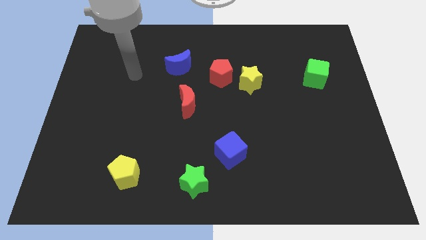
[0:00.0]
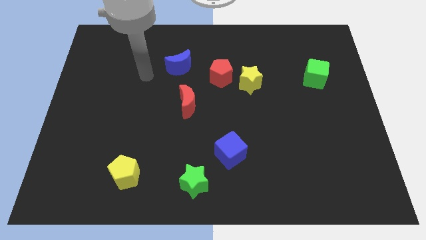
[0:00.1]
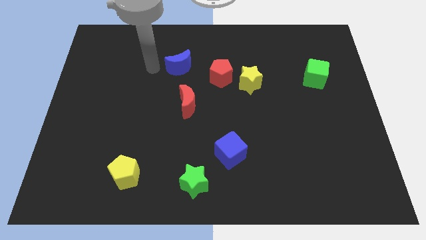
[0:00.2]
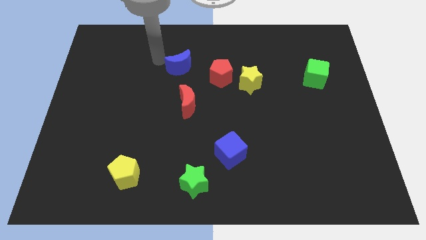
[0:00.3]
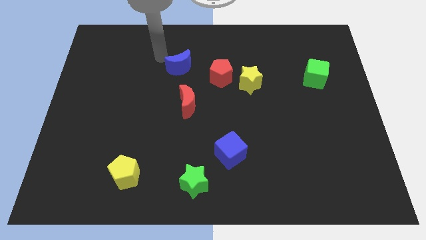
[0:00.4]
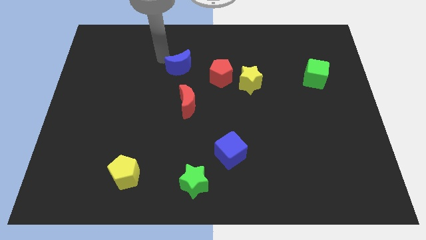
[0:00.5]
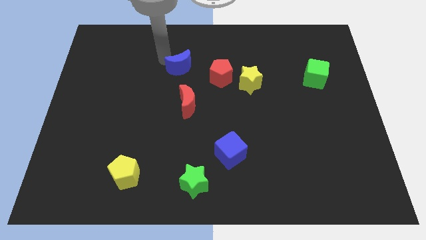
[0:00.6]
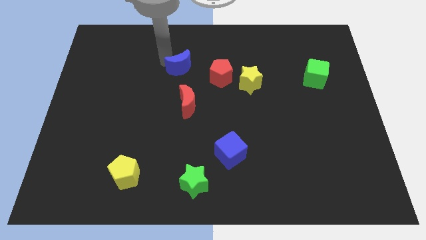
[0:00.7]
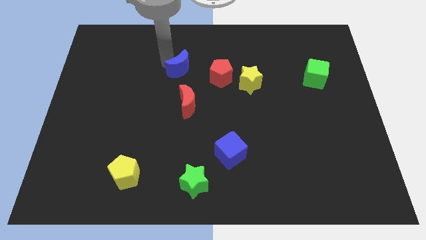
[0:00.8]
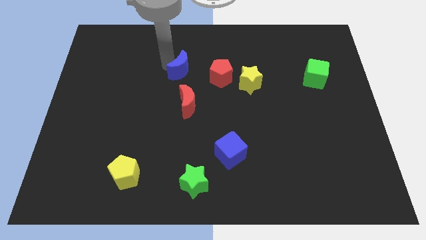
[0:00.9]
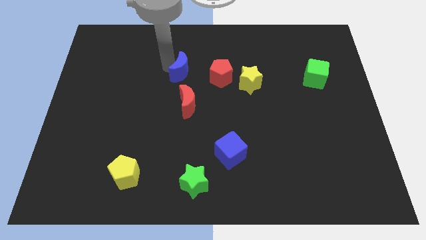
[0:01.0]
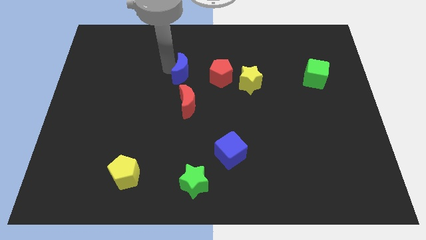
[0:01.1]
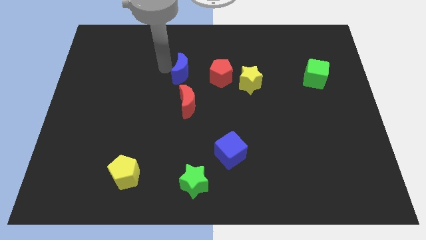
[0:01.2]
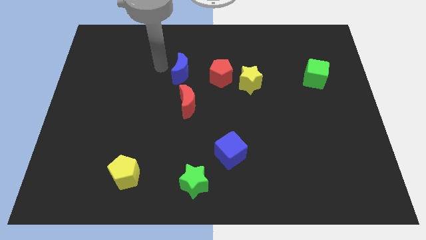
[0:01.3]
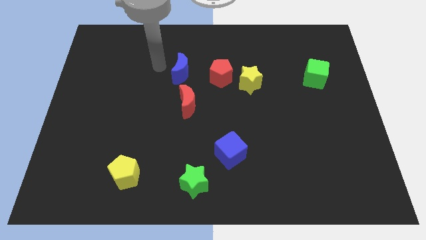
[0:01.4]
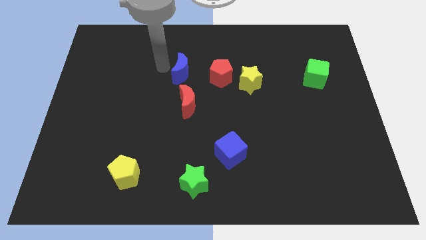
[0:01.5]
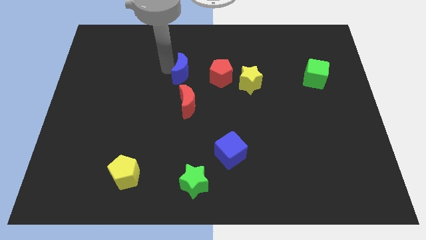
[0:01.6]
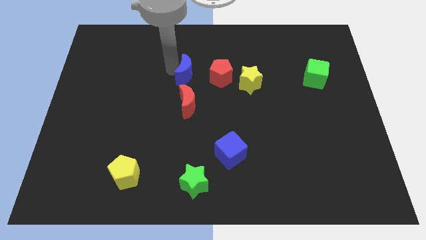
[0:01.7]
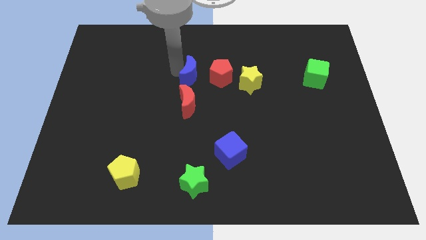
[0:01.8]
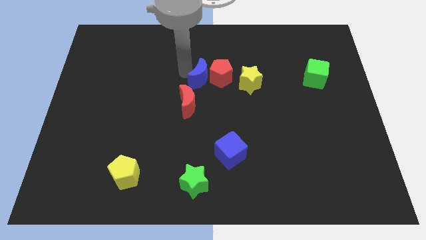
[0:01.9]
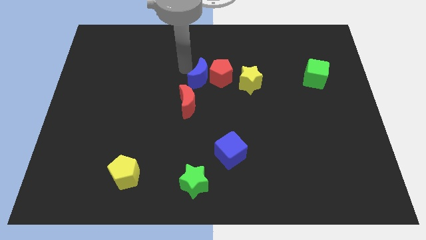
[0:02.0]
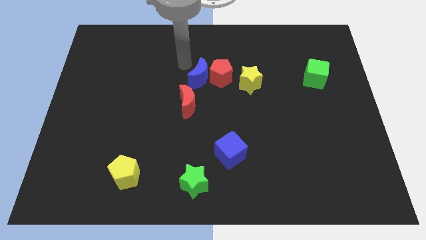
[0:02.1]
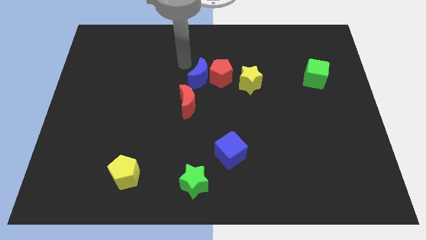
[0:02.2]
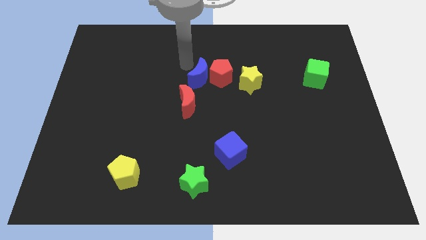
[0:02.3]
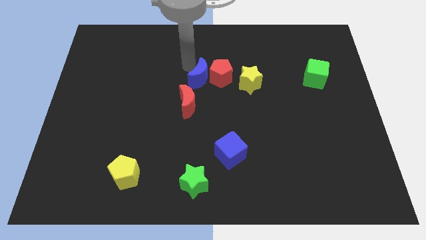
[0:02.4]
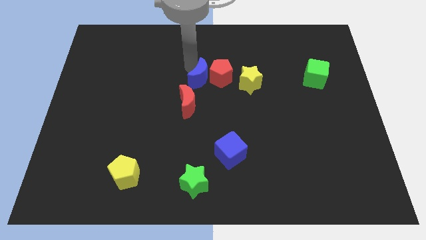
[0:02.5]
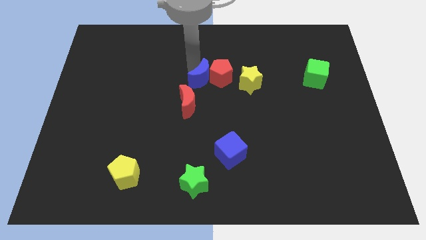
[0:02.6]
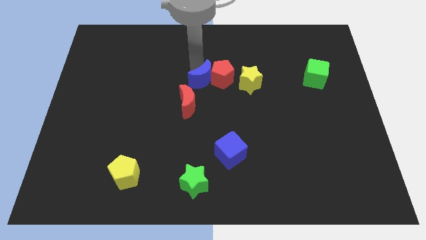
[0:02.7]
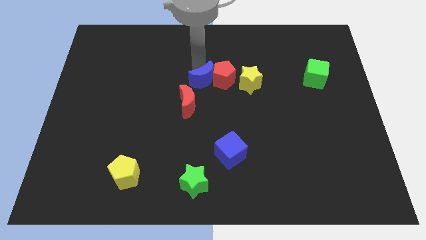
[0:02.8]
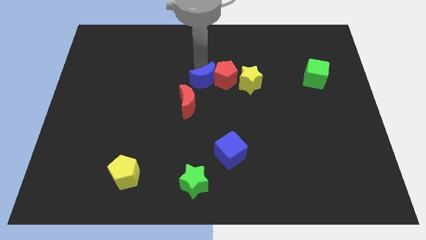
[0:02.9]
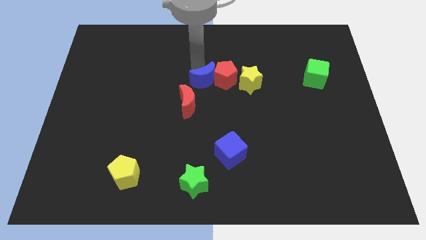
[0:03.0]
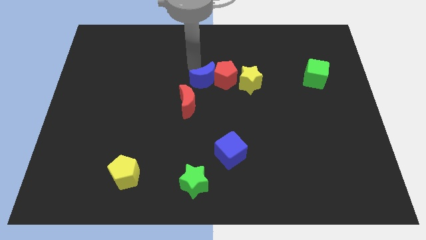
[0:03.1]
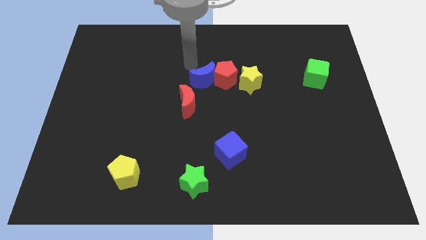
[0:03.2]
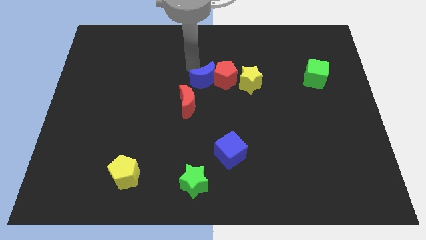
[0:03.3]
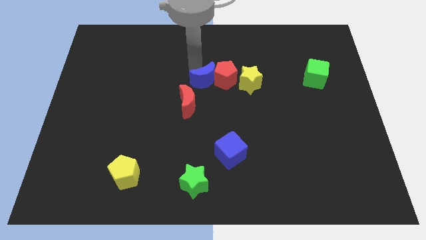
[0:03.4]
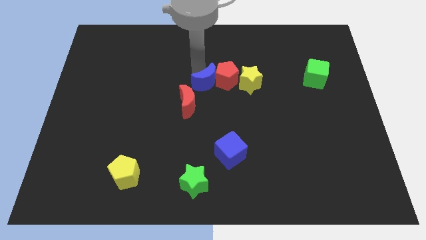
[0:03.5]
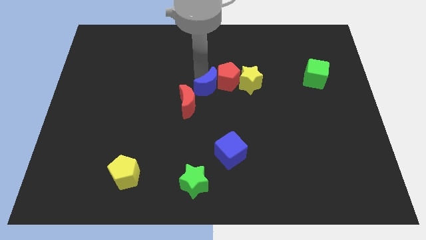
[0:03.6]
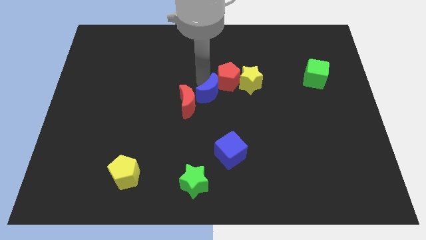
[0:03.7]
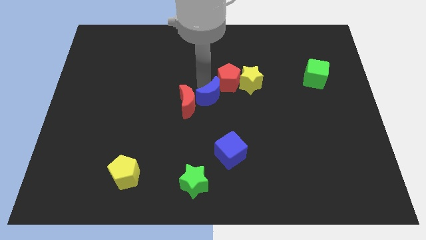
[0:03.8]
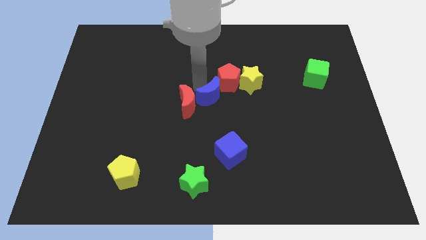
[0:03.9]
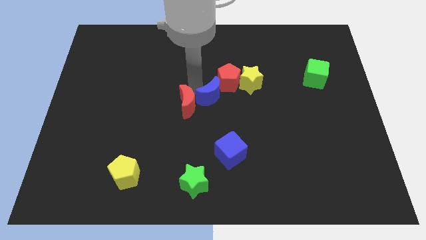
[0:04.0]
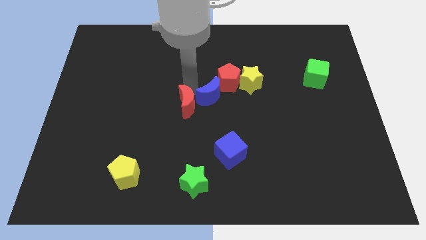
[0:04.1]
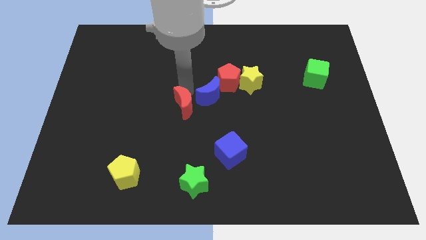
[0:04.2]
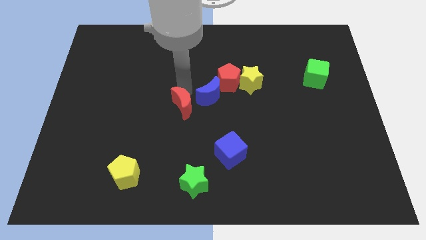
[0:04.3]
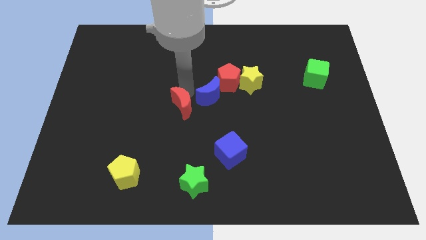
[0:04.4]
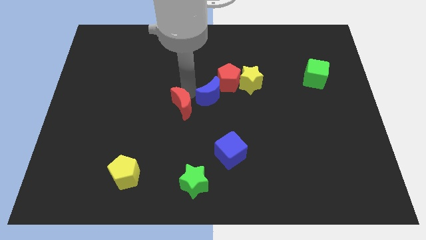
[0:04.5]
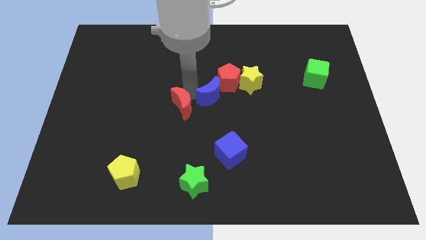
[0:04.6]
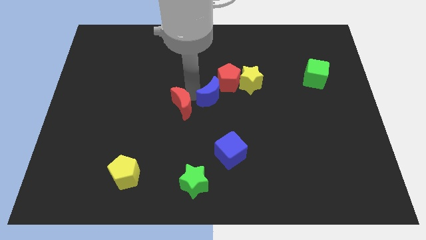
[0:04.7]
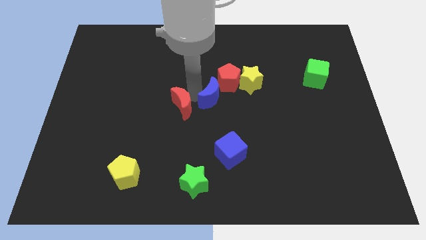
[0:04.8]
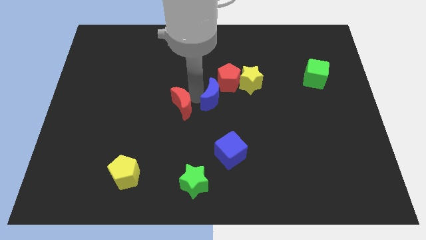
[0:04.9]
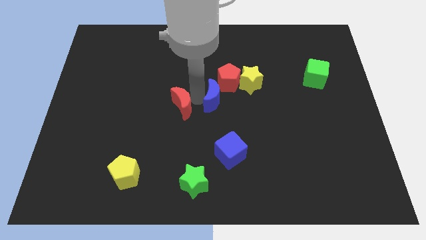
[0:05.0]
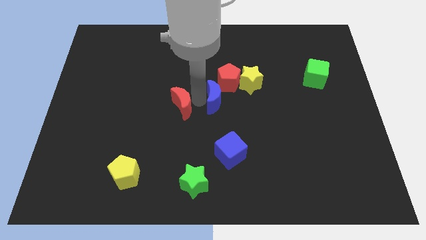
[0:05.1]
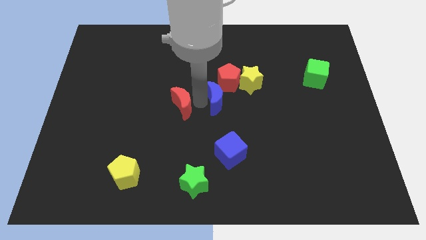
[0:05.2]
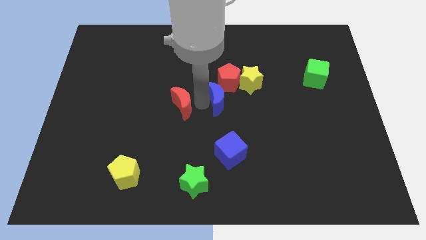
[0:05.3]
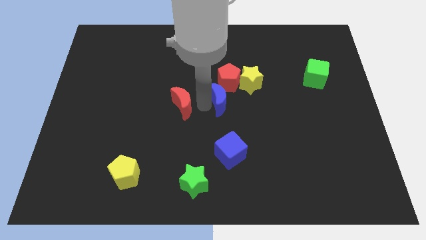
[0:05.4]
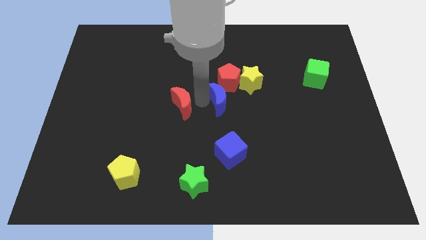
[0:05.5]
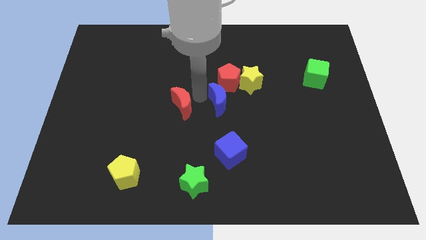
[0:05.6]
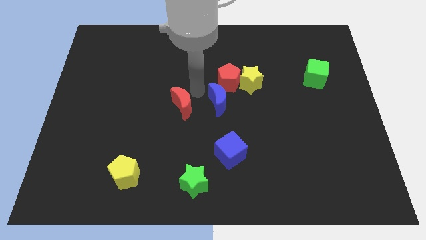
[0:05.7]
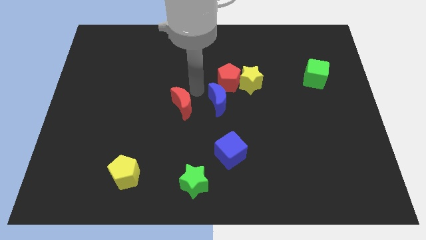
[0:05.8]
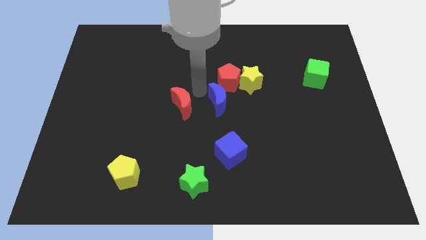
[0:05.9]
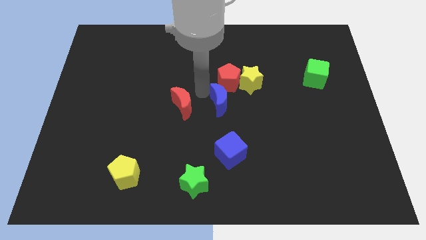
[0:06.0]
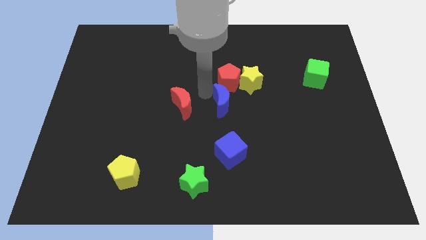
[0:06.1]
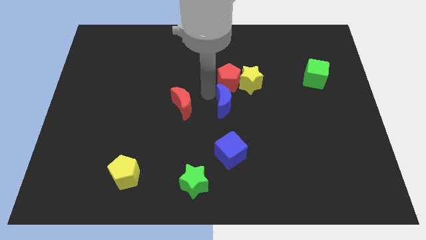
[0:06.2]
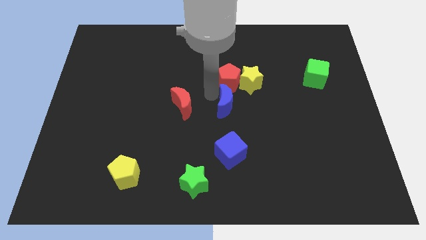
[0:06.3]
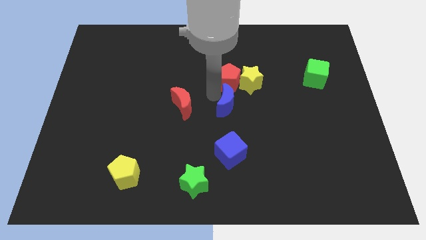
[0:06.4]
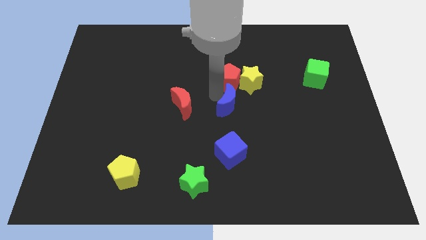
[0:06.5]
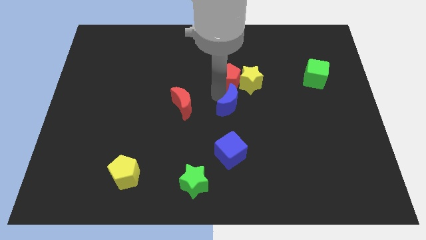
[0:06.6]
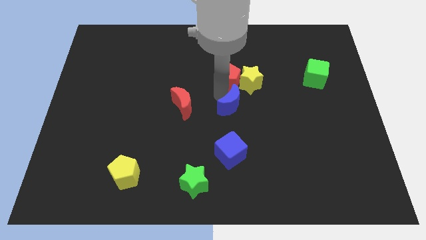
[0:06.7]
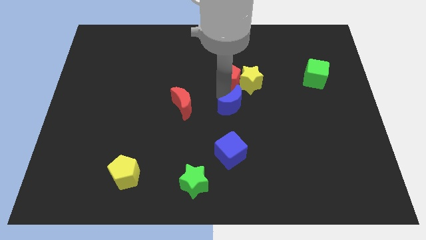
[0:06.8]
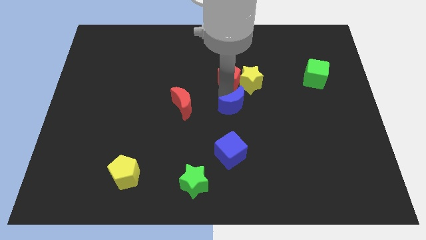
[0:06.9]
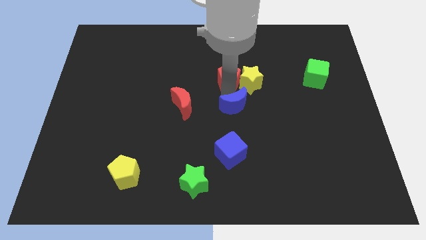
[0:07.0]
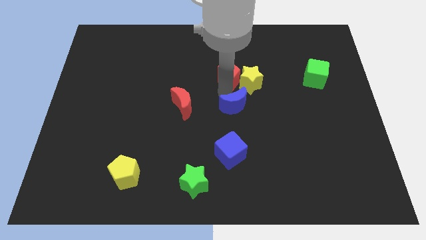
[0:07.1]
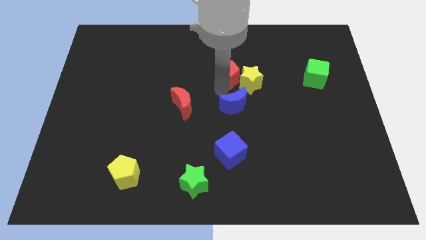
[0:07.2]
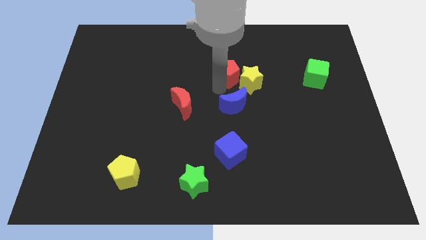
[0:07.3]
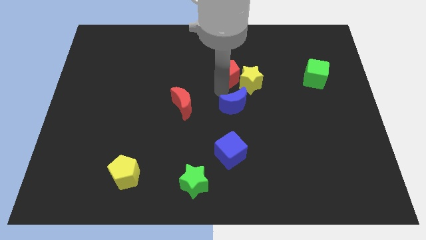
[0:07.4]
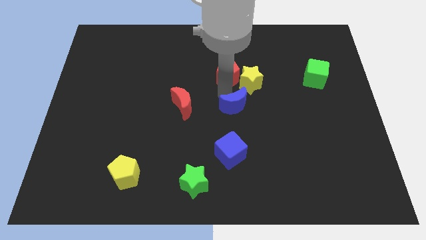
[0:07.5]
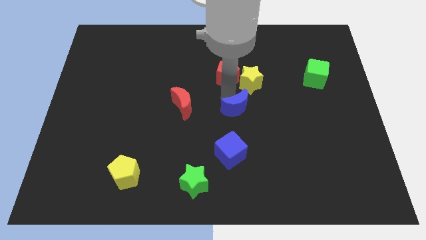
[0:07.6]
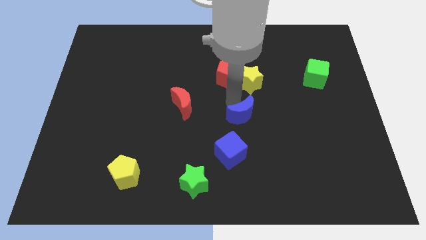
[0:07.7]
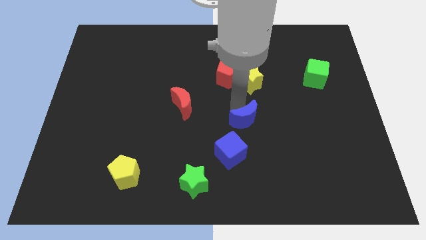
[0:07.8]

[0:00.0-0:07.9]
slide the blue moon to the top right side of the blue cube
